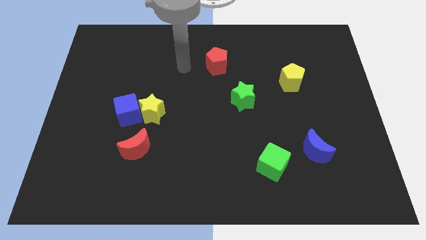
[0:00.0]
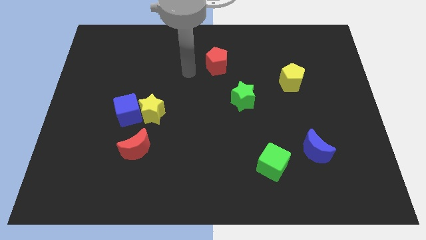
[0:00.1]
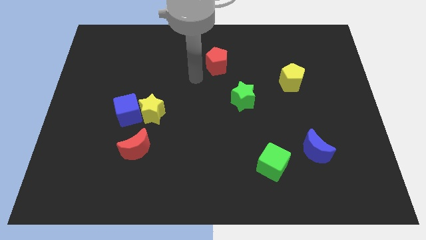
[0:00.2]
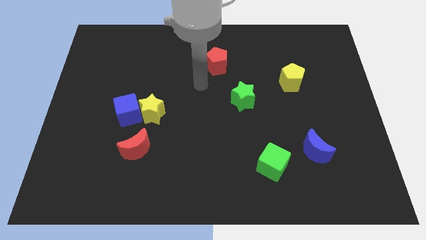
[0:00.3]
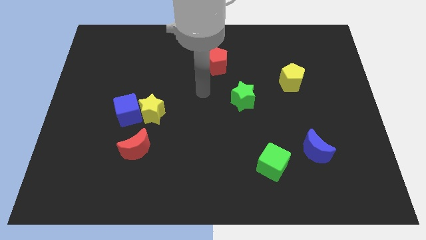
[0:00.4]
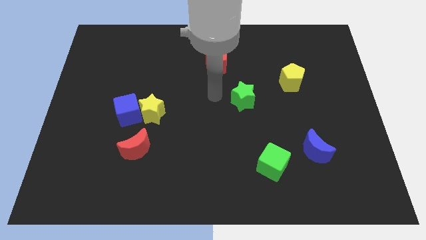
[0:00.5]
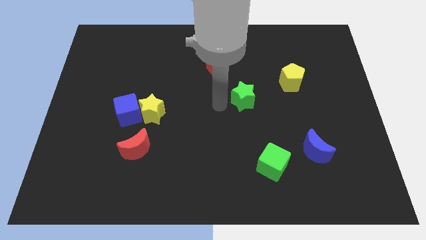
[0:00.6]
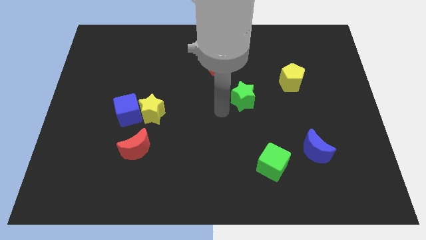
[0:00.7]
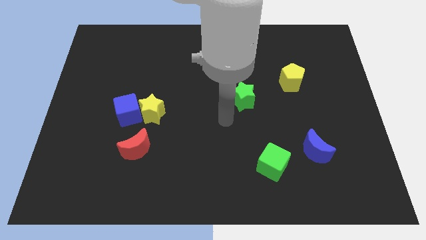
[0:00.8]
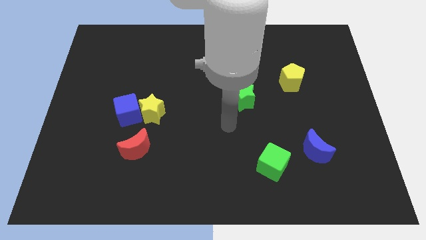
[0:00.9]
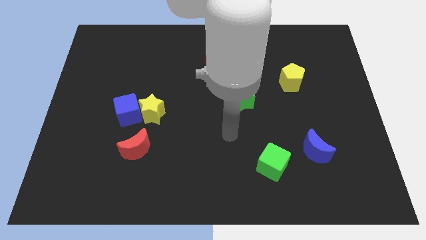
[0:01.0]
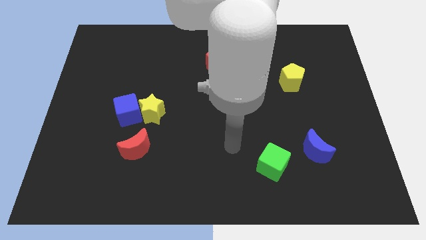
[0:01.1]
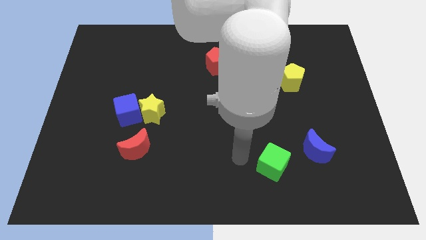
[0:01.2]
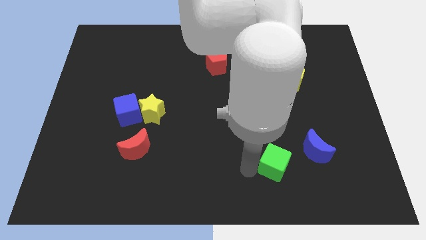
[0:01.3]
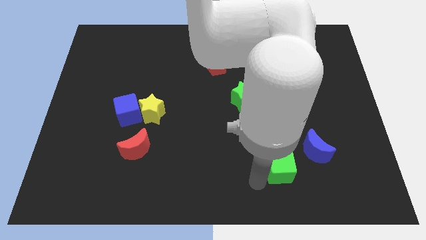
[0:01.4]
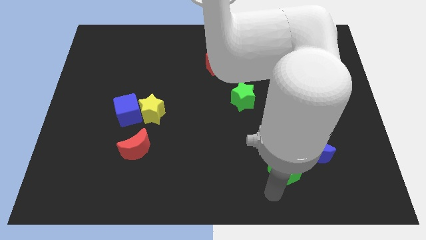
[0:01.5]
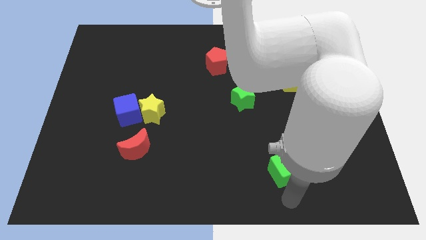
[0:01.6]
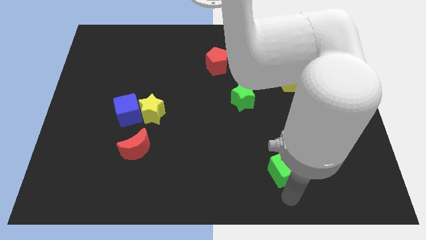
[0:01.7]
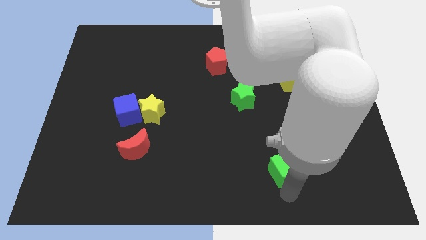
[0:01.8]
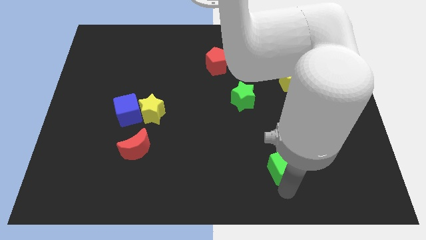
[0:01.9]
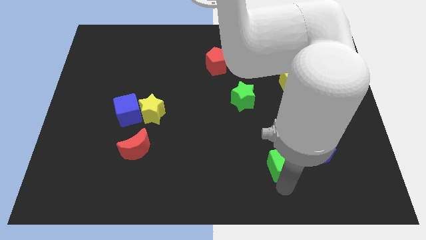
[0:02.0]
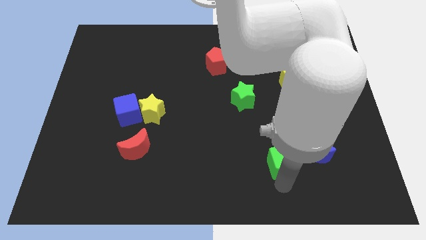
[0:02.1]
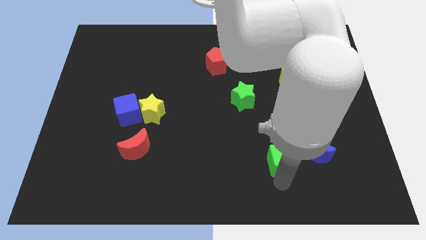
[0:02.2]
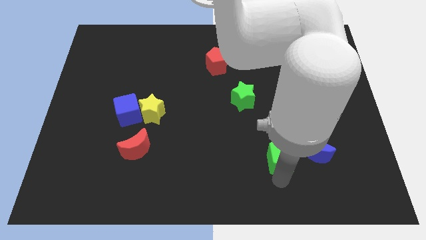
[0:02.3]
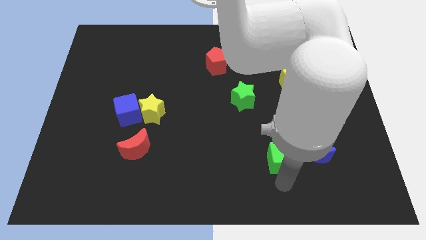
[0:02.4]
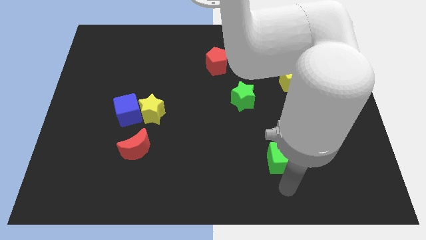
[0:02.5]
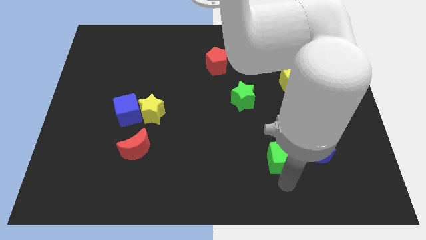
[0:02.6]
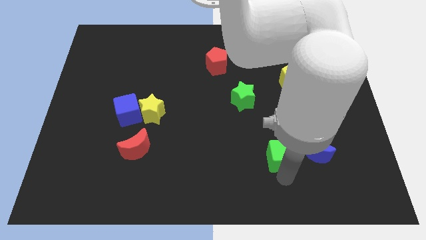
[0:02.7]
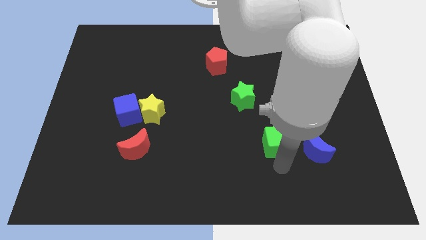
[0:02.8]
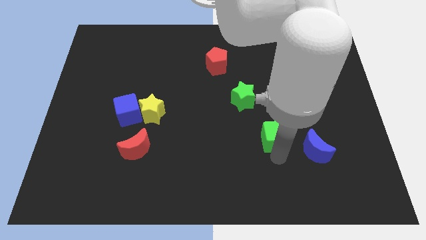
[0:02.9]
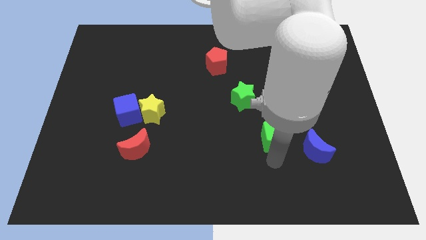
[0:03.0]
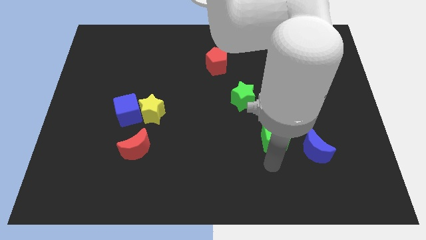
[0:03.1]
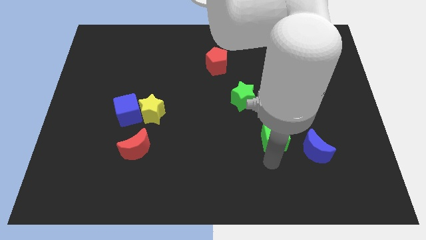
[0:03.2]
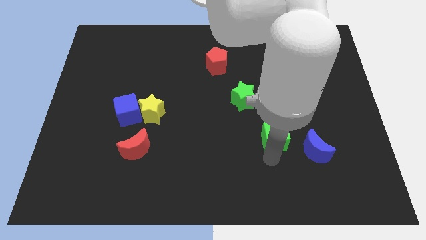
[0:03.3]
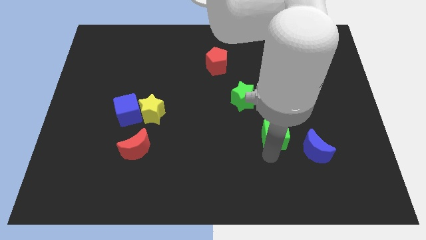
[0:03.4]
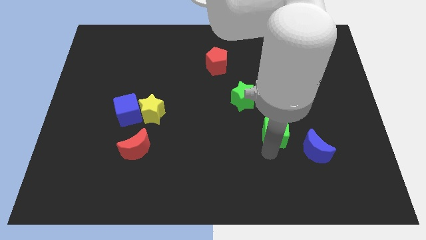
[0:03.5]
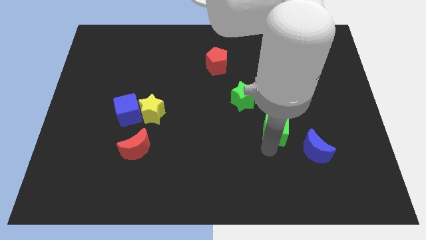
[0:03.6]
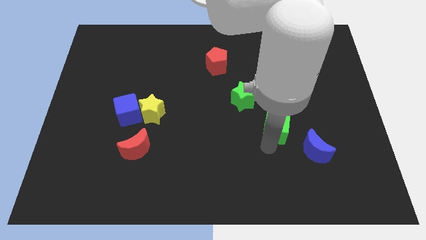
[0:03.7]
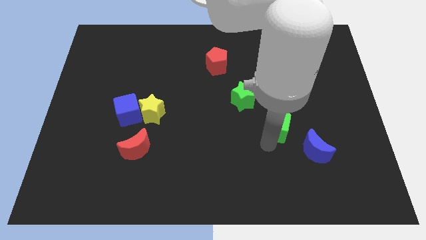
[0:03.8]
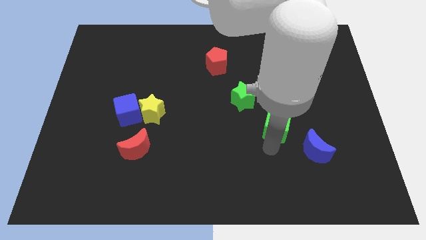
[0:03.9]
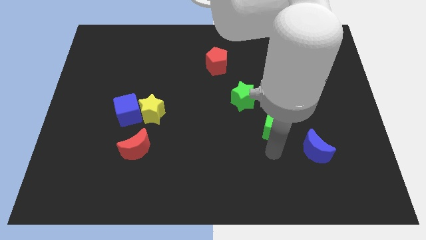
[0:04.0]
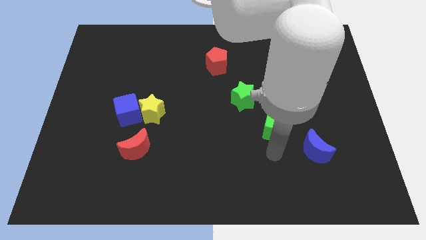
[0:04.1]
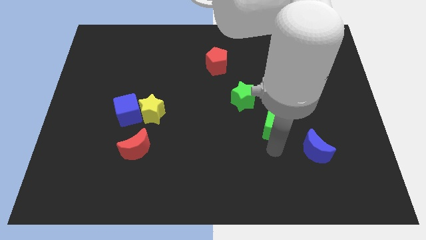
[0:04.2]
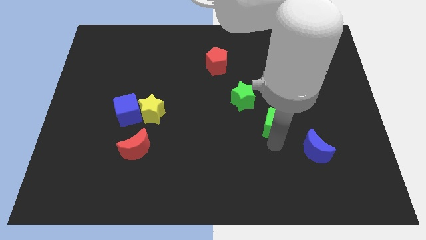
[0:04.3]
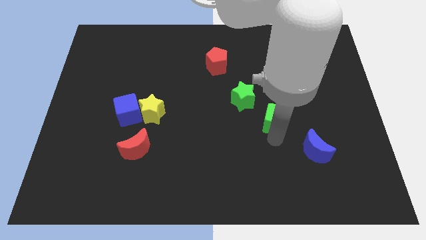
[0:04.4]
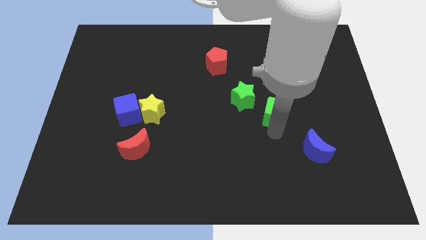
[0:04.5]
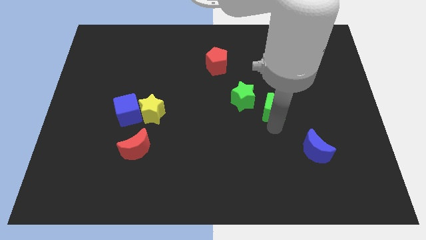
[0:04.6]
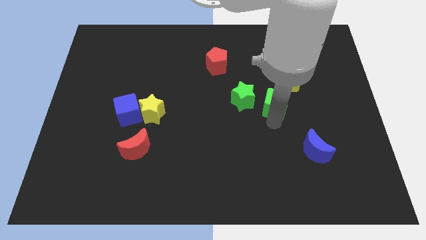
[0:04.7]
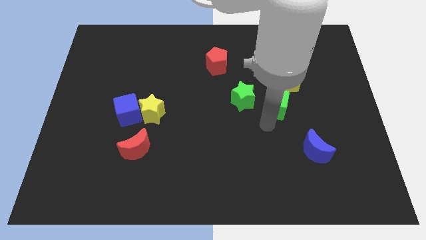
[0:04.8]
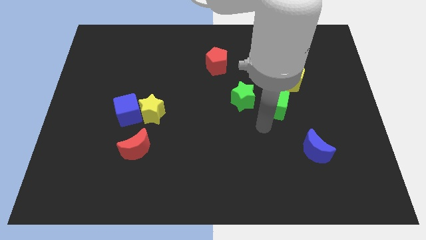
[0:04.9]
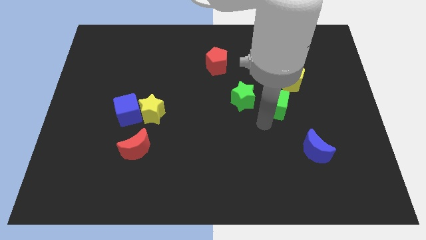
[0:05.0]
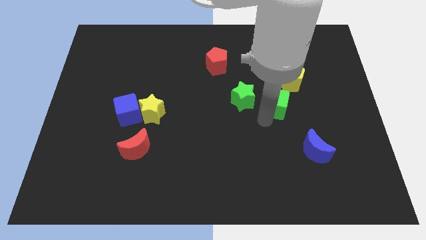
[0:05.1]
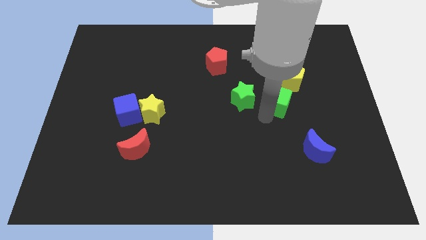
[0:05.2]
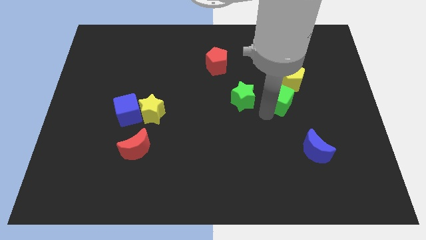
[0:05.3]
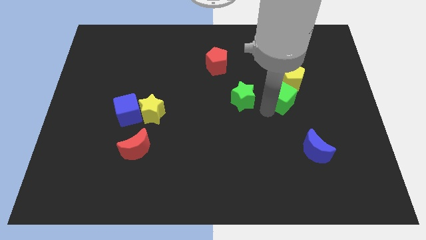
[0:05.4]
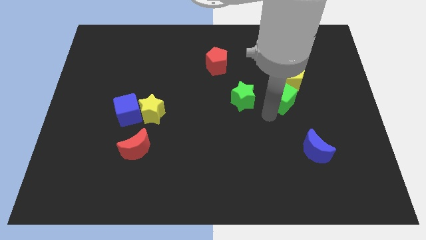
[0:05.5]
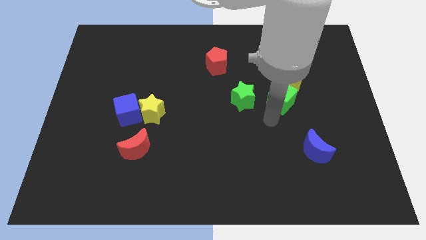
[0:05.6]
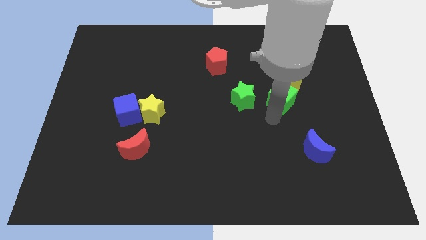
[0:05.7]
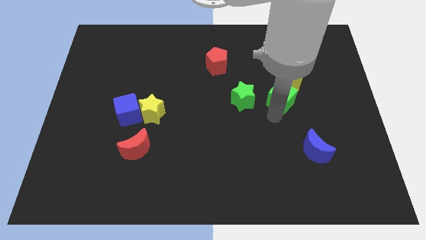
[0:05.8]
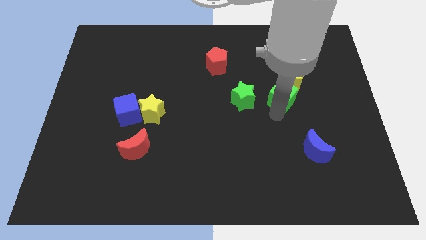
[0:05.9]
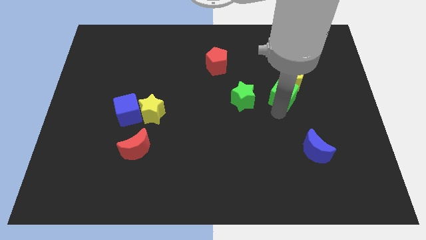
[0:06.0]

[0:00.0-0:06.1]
move the green cube to the yellow pentagon
